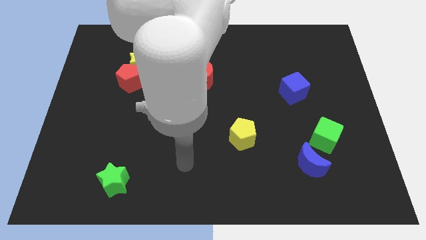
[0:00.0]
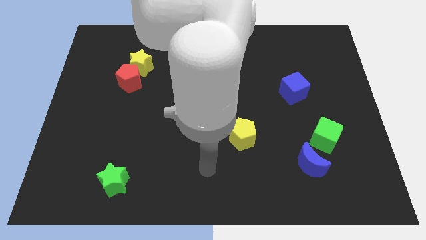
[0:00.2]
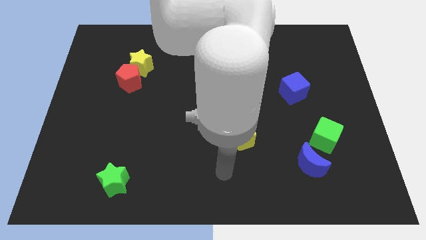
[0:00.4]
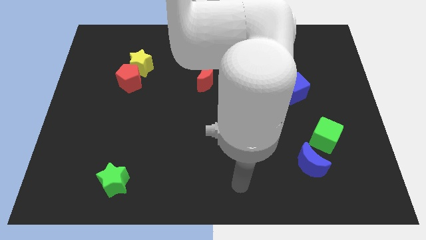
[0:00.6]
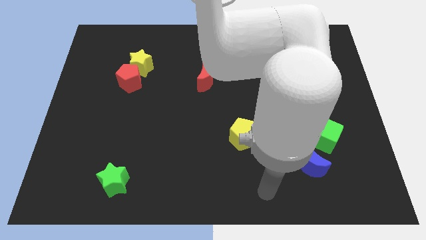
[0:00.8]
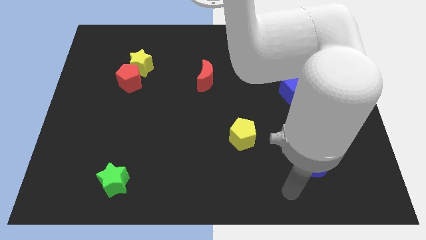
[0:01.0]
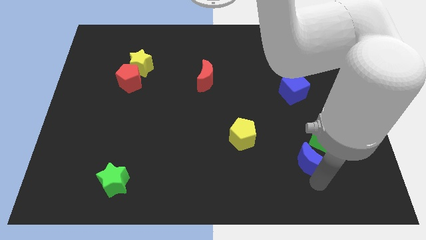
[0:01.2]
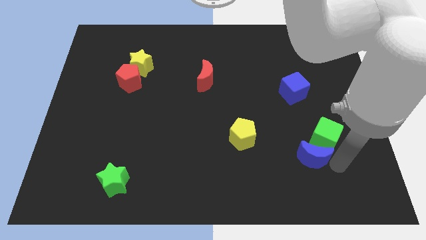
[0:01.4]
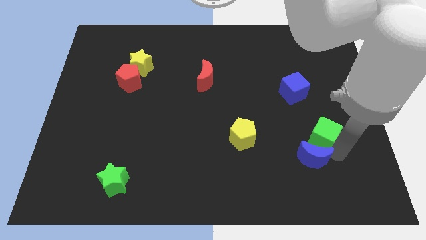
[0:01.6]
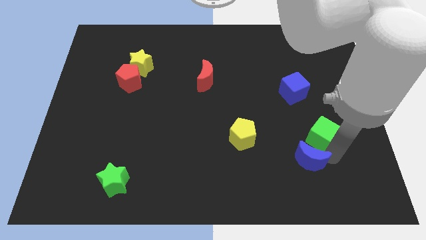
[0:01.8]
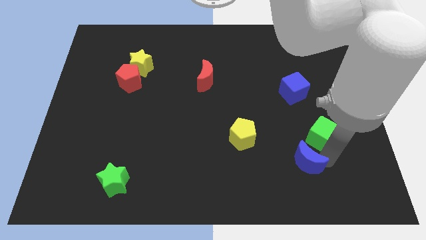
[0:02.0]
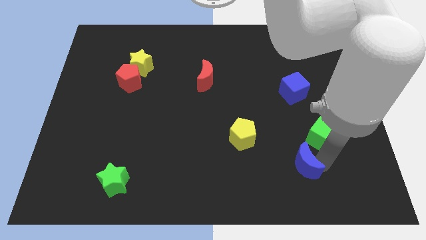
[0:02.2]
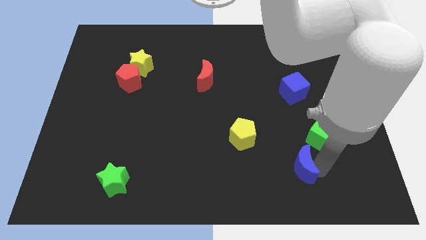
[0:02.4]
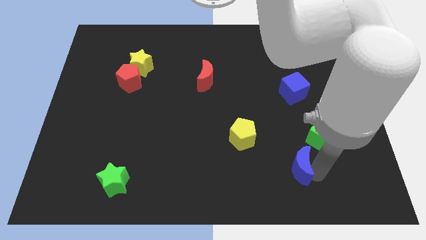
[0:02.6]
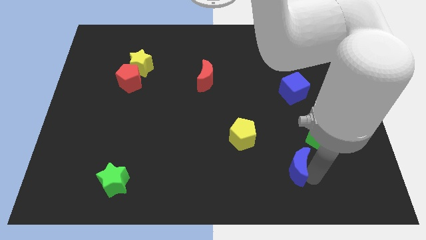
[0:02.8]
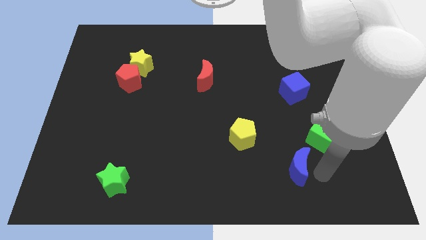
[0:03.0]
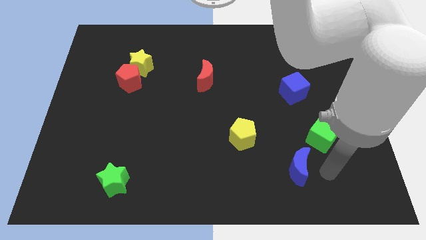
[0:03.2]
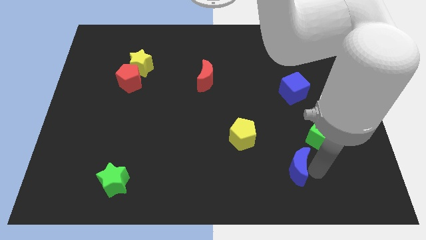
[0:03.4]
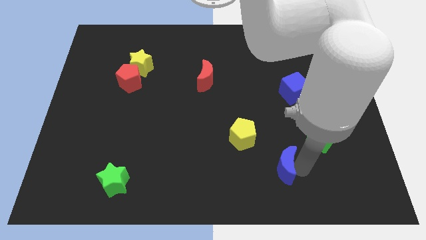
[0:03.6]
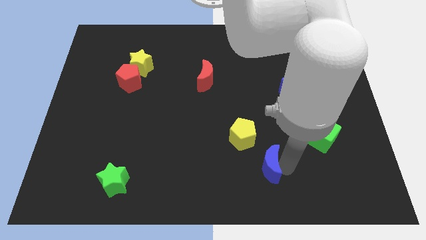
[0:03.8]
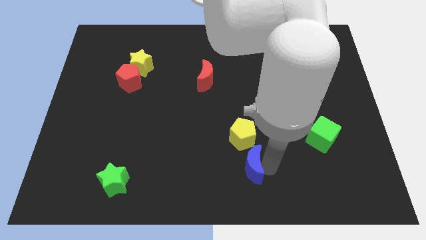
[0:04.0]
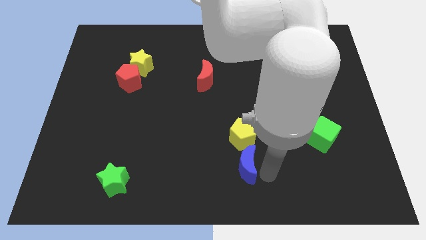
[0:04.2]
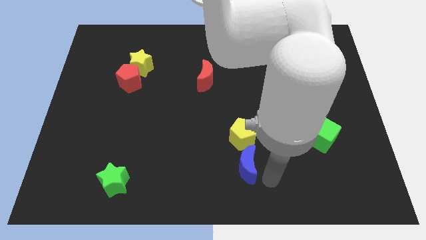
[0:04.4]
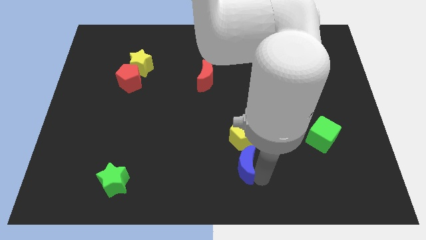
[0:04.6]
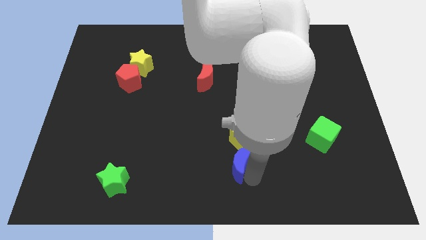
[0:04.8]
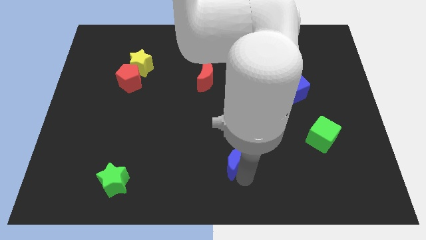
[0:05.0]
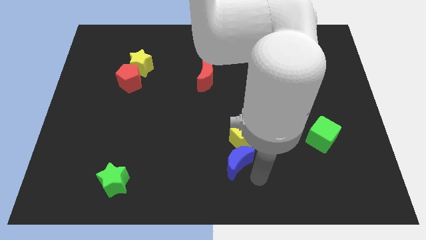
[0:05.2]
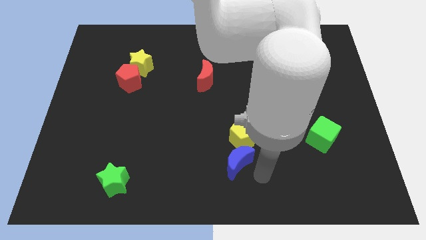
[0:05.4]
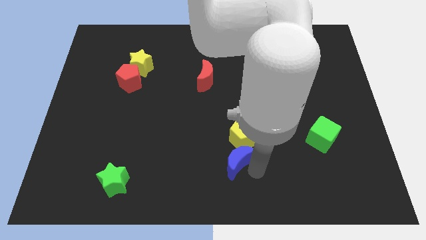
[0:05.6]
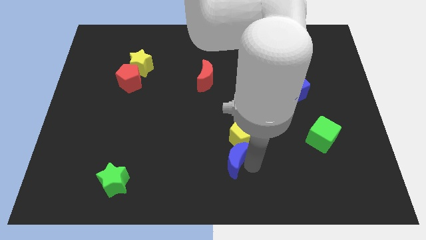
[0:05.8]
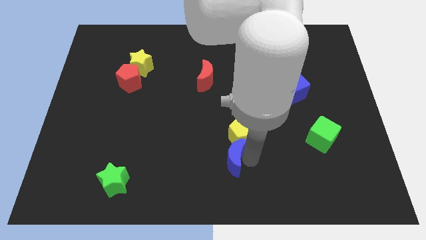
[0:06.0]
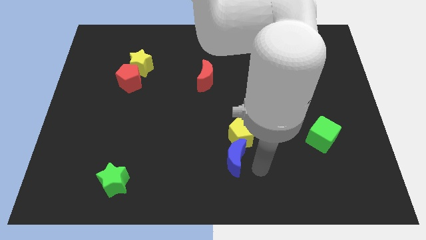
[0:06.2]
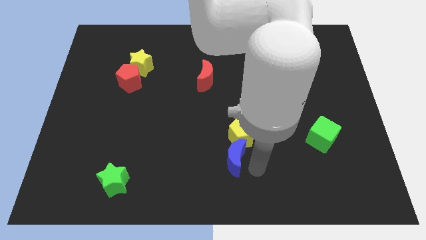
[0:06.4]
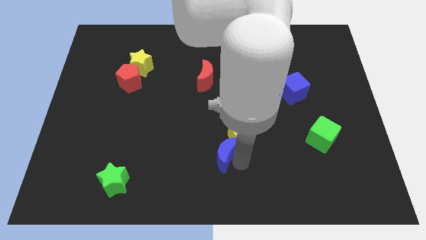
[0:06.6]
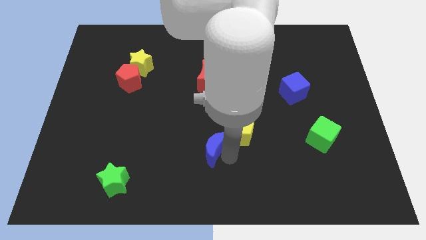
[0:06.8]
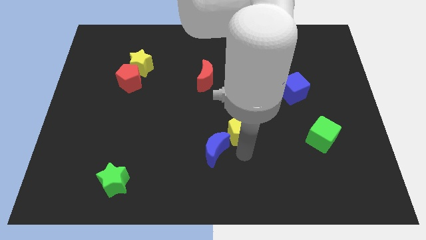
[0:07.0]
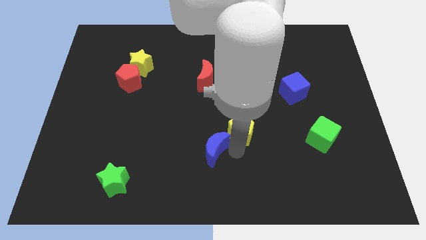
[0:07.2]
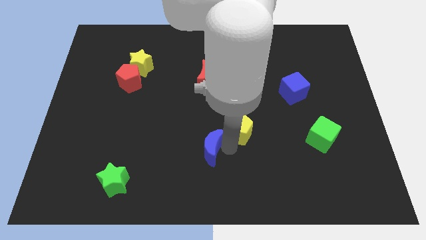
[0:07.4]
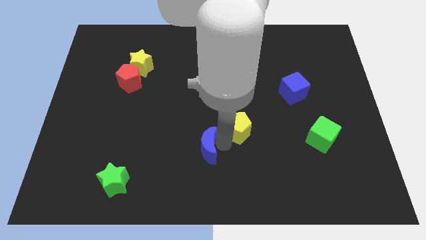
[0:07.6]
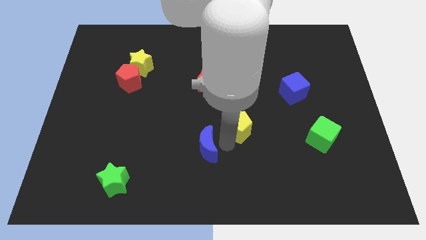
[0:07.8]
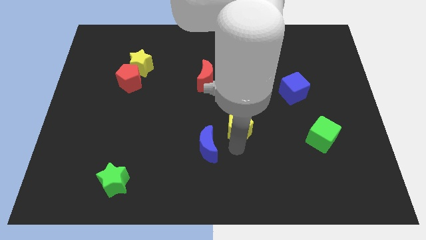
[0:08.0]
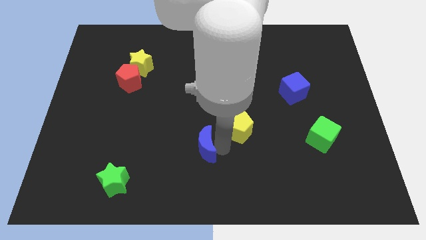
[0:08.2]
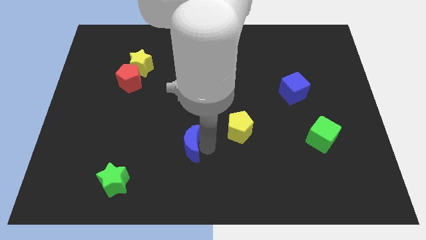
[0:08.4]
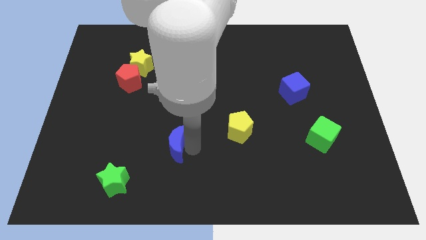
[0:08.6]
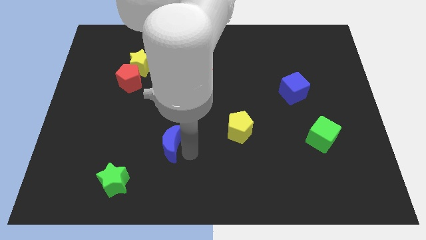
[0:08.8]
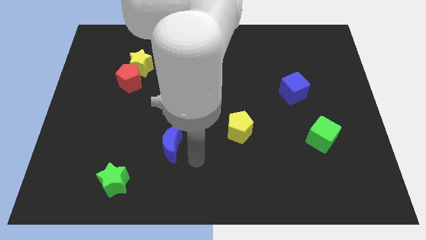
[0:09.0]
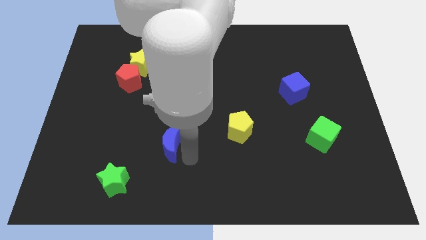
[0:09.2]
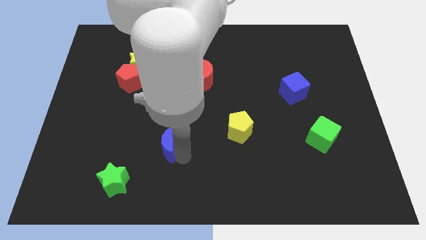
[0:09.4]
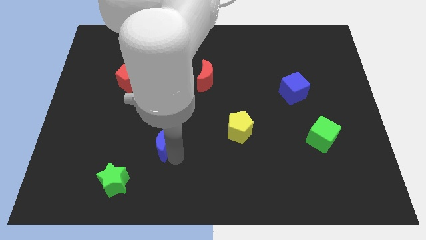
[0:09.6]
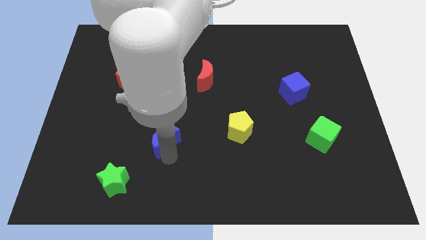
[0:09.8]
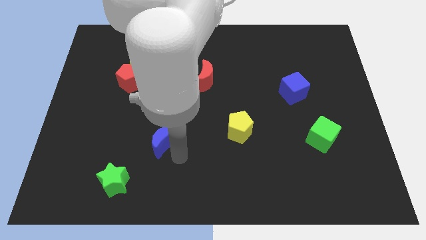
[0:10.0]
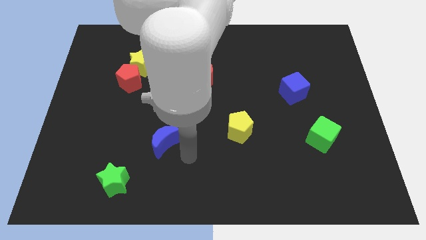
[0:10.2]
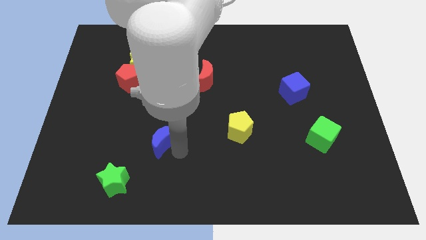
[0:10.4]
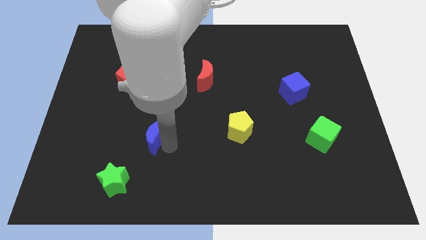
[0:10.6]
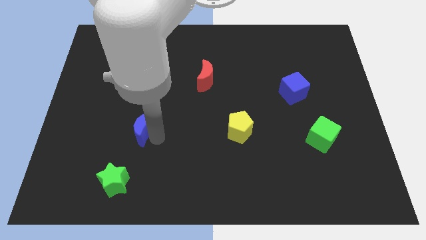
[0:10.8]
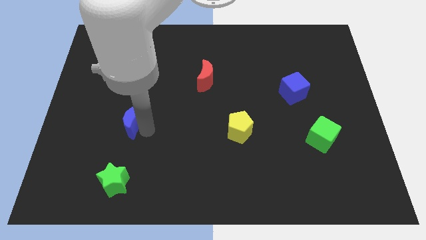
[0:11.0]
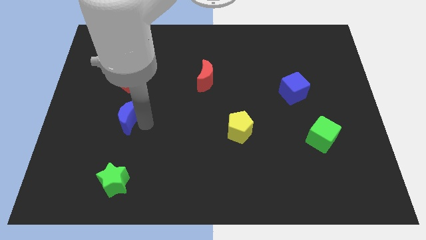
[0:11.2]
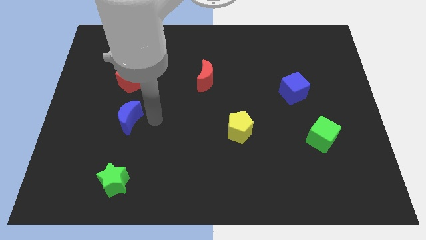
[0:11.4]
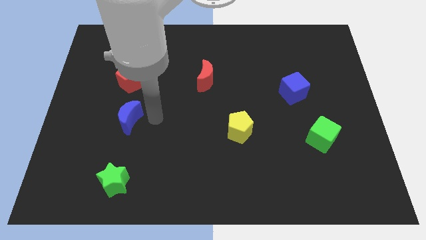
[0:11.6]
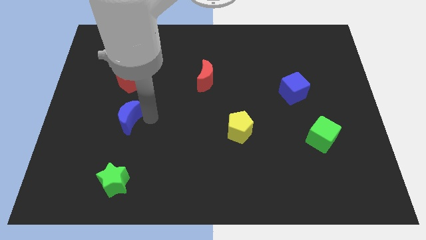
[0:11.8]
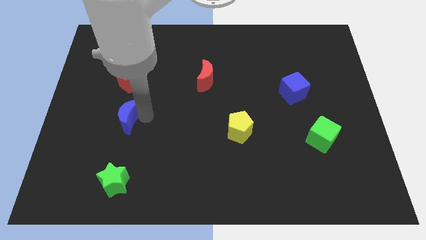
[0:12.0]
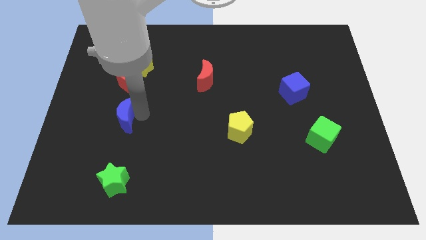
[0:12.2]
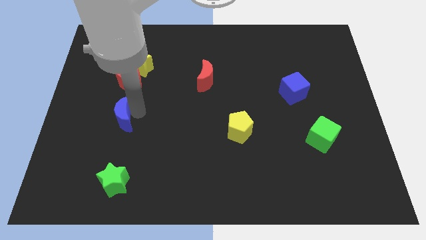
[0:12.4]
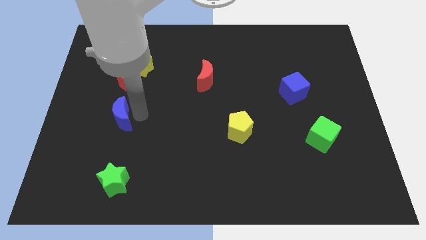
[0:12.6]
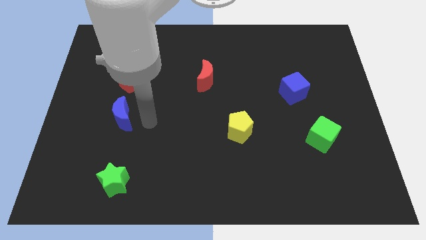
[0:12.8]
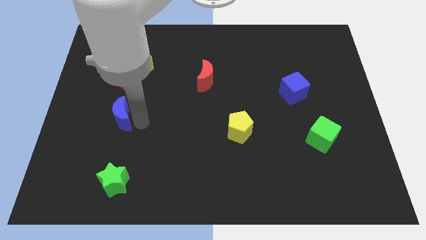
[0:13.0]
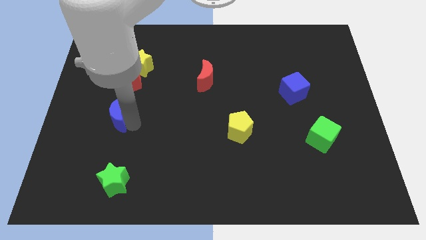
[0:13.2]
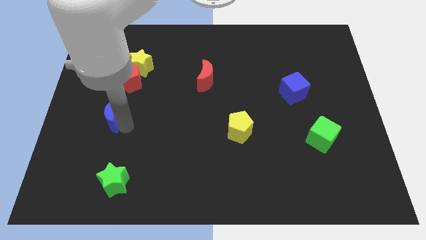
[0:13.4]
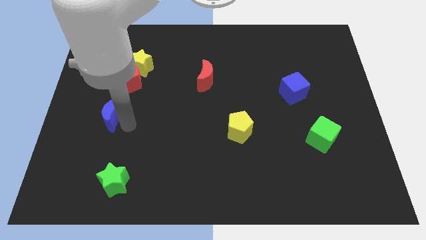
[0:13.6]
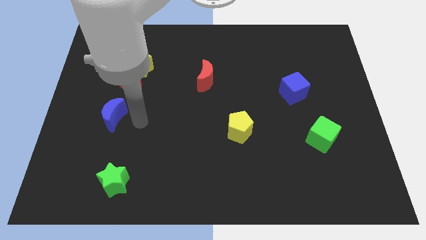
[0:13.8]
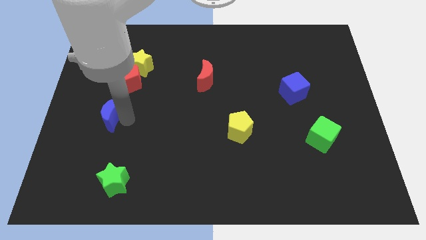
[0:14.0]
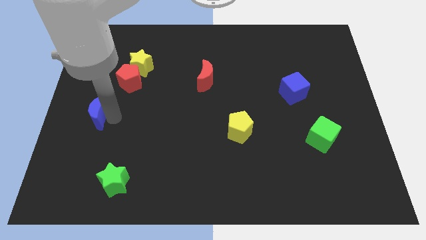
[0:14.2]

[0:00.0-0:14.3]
put the blue moon to the left side
